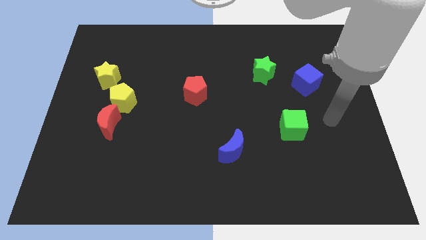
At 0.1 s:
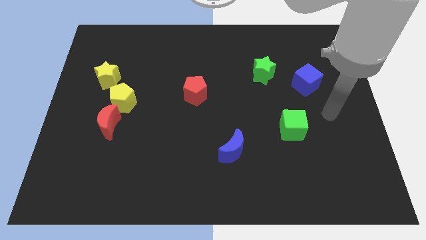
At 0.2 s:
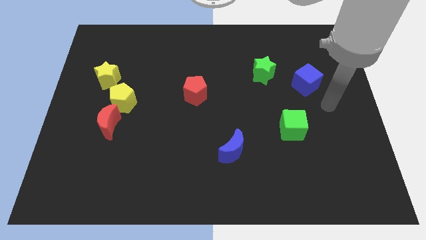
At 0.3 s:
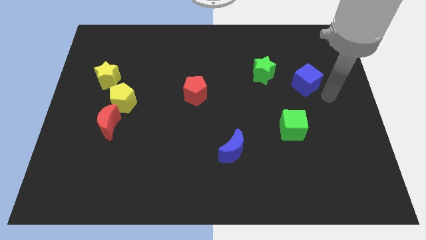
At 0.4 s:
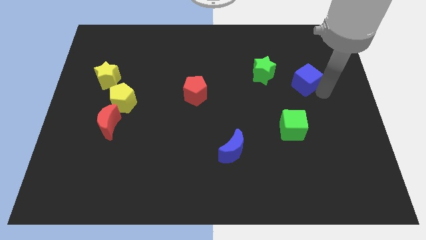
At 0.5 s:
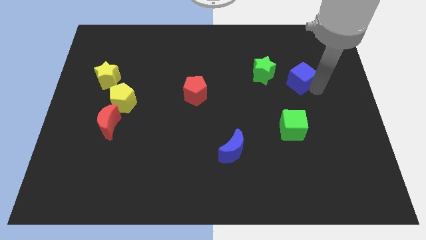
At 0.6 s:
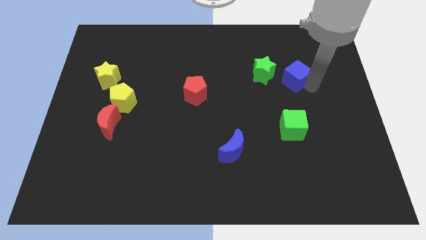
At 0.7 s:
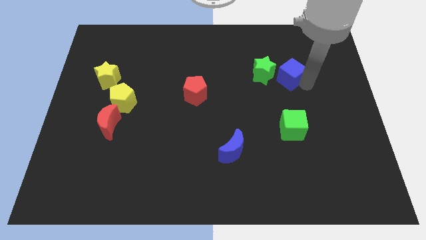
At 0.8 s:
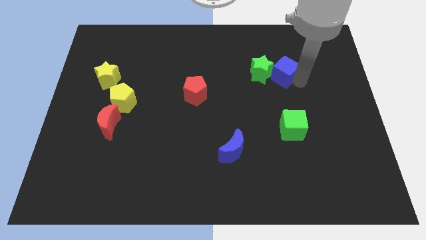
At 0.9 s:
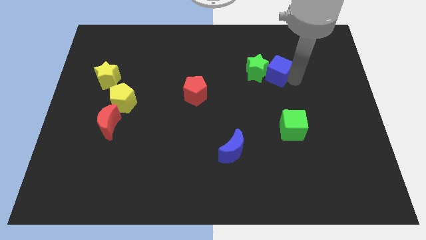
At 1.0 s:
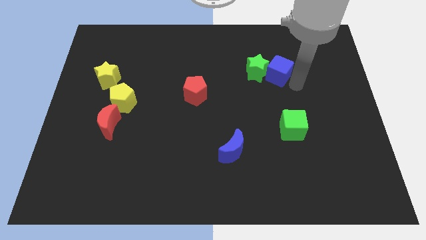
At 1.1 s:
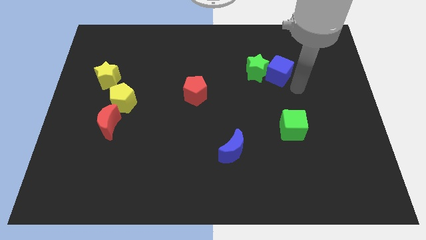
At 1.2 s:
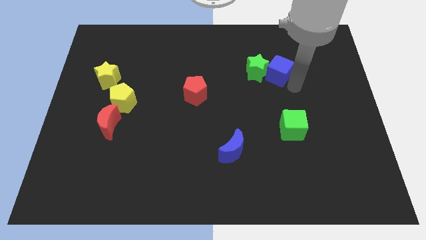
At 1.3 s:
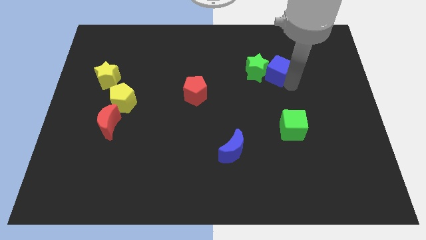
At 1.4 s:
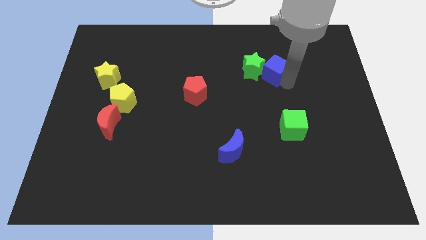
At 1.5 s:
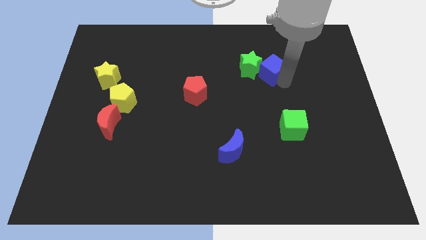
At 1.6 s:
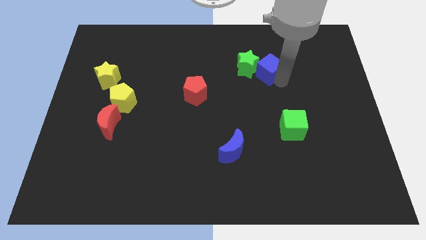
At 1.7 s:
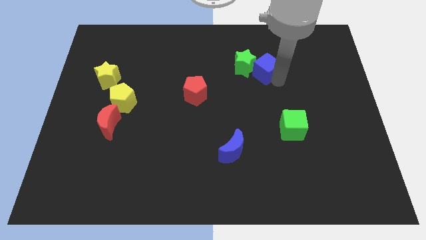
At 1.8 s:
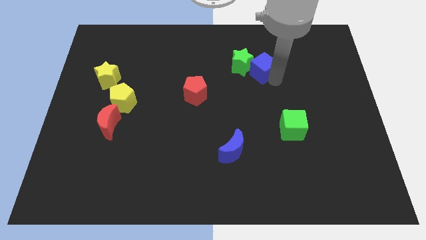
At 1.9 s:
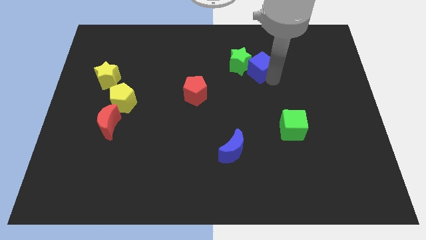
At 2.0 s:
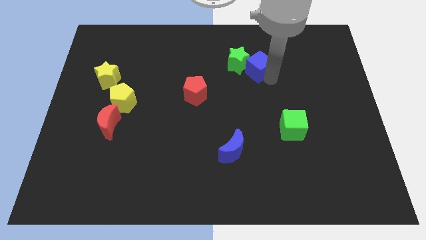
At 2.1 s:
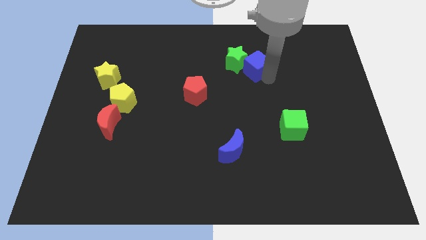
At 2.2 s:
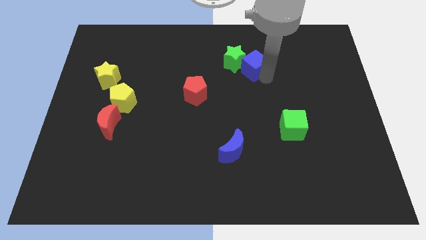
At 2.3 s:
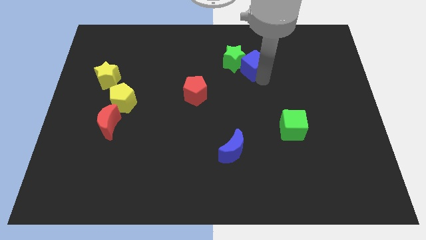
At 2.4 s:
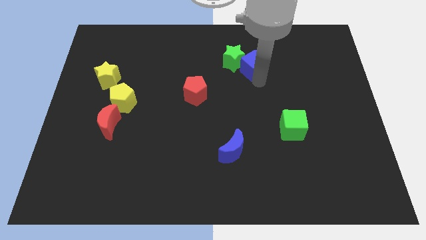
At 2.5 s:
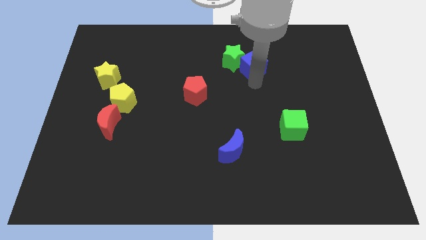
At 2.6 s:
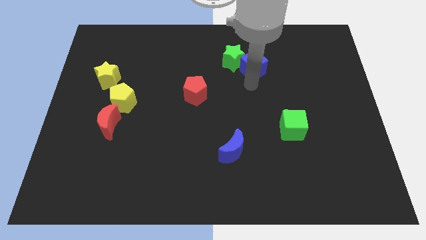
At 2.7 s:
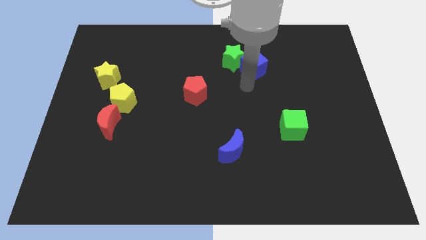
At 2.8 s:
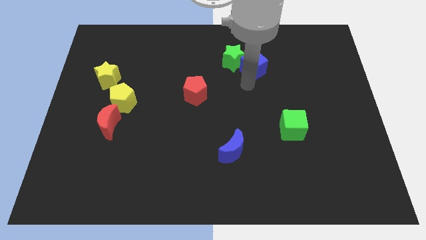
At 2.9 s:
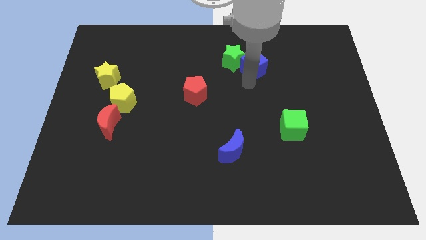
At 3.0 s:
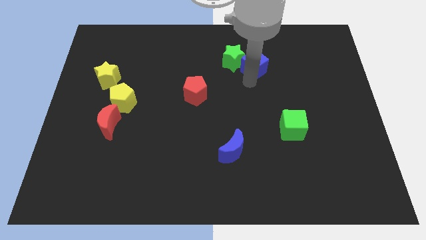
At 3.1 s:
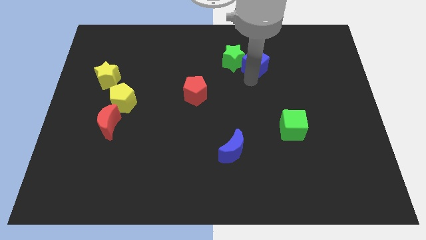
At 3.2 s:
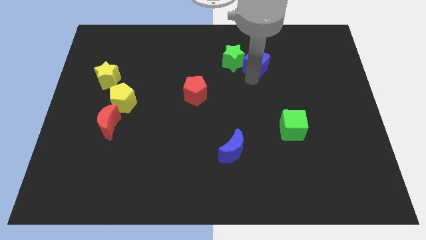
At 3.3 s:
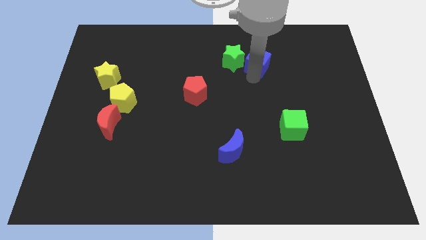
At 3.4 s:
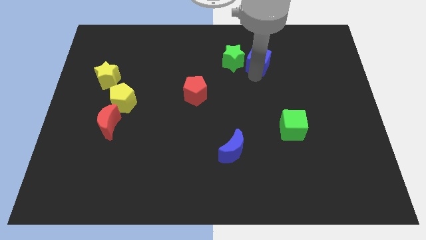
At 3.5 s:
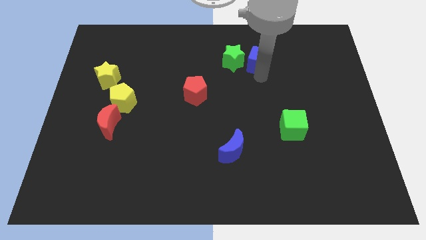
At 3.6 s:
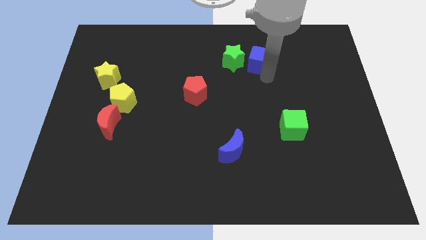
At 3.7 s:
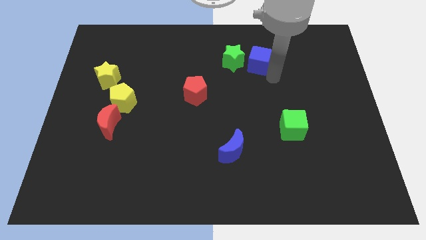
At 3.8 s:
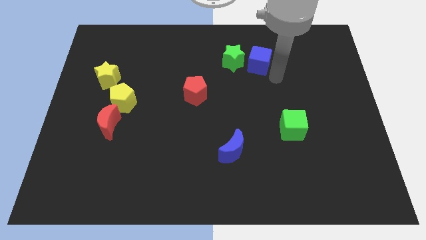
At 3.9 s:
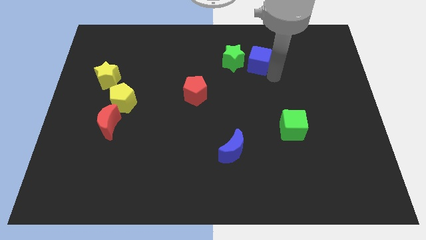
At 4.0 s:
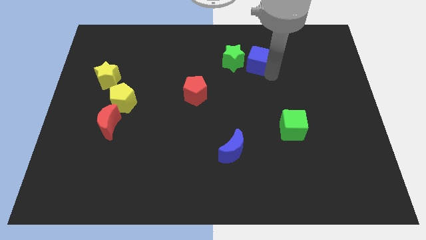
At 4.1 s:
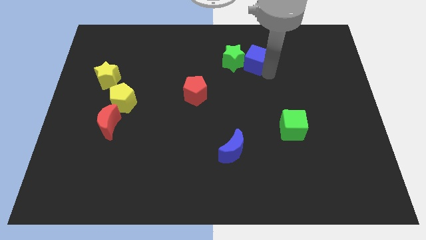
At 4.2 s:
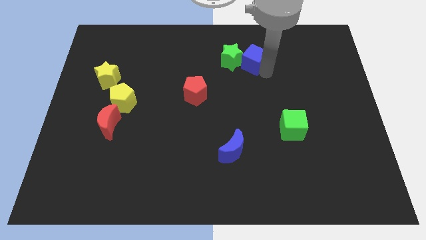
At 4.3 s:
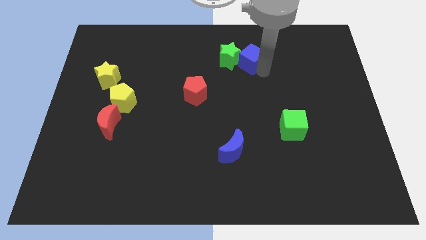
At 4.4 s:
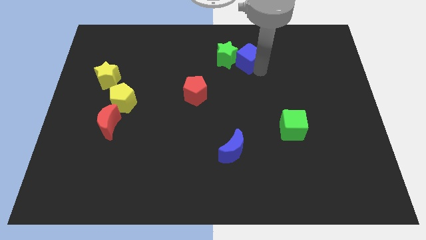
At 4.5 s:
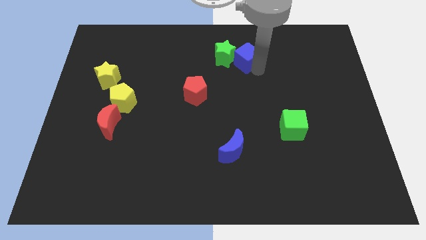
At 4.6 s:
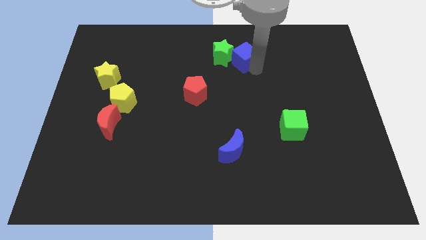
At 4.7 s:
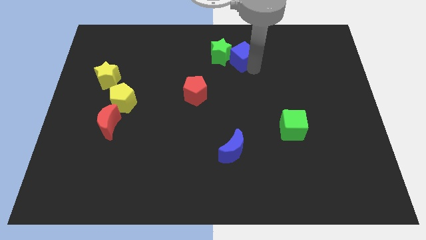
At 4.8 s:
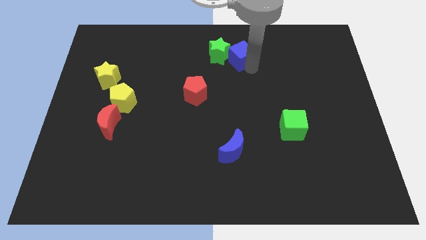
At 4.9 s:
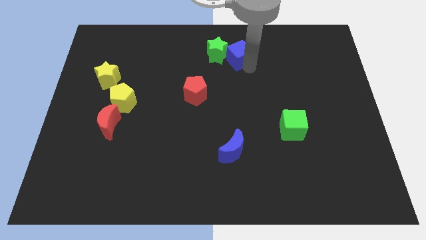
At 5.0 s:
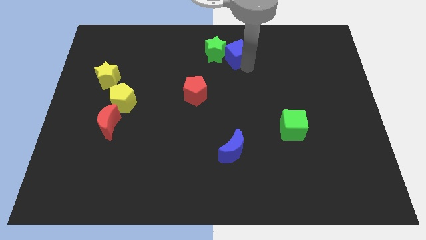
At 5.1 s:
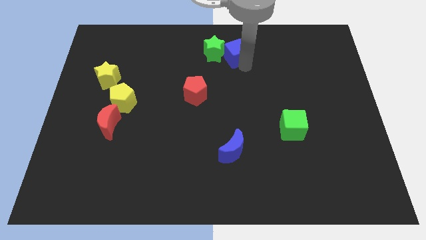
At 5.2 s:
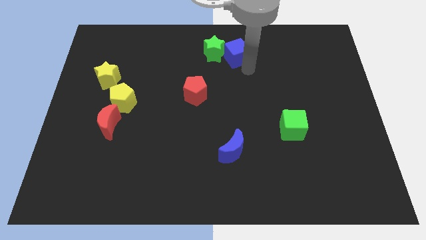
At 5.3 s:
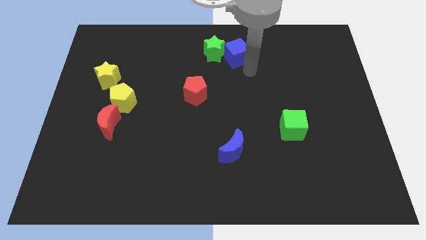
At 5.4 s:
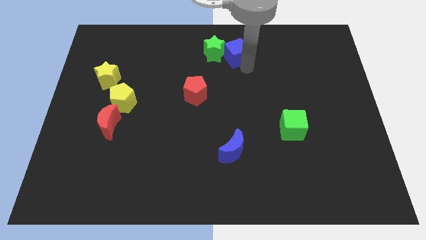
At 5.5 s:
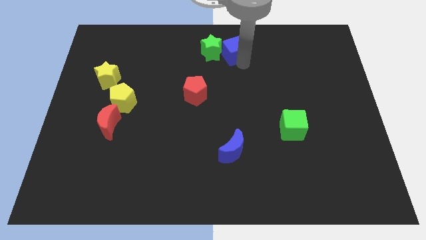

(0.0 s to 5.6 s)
push the blue cube to the top side
